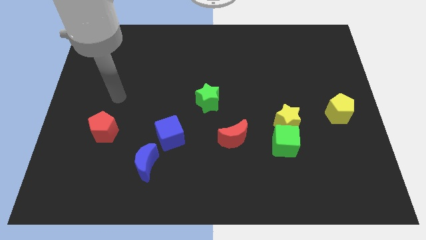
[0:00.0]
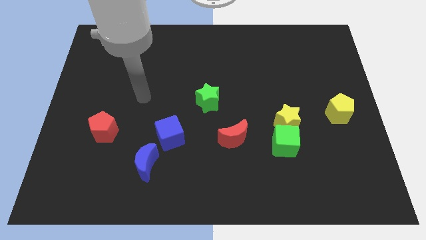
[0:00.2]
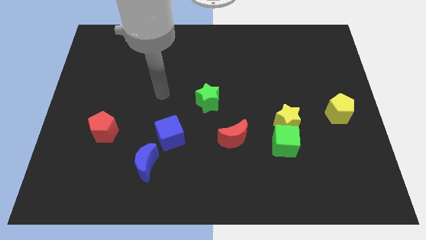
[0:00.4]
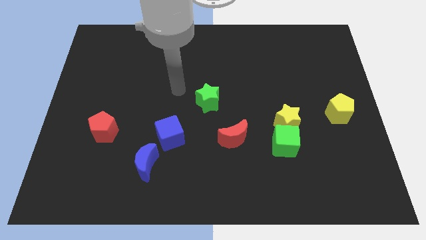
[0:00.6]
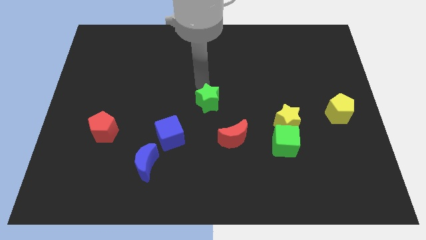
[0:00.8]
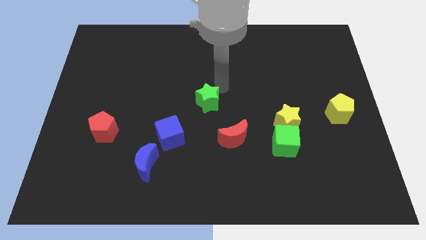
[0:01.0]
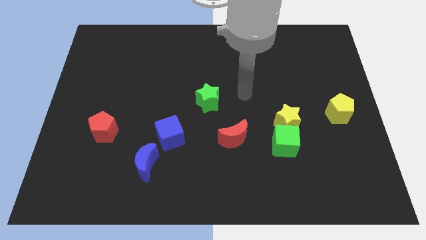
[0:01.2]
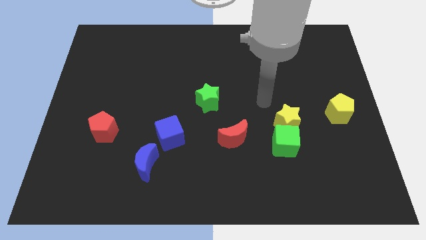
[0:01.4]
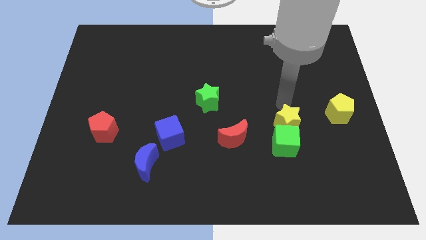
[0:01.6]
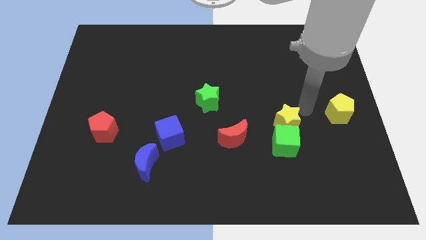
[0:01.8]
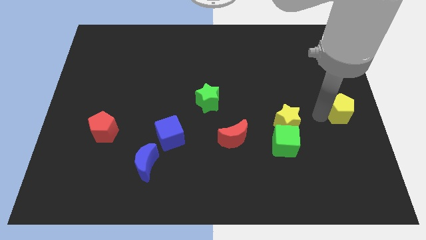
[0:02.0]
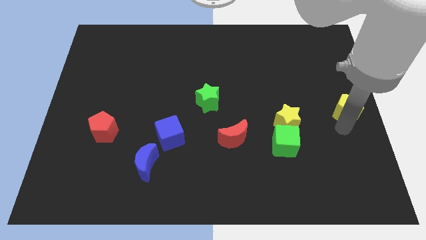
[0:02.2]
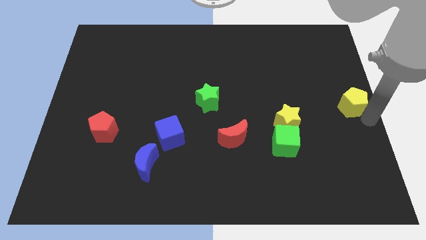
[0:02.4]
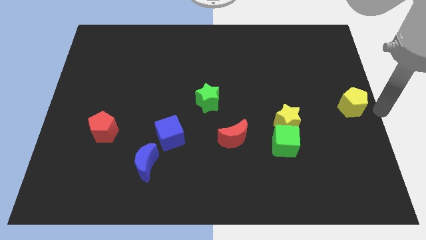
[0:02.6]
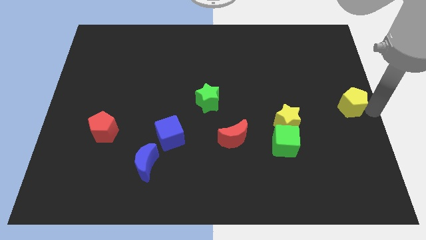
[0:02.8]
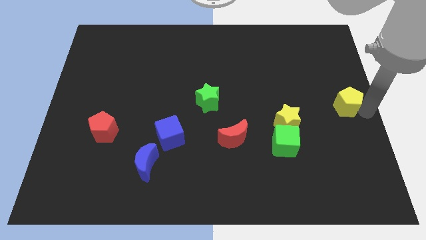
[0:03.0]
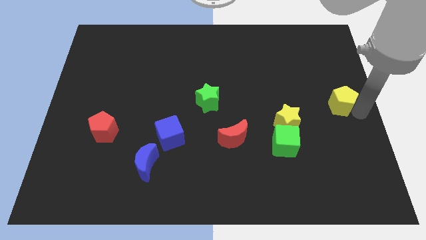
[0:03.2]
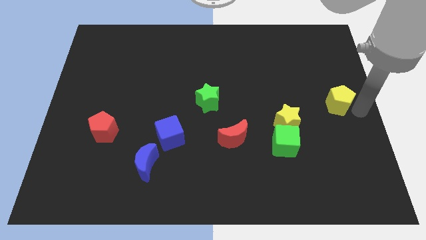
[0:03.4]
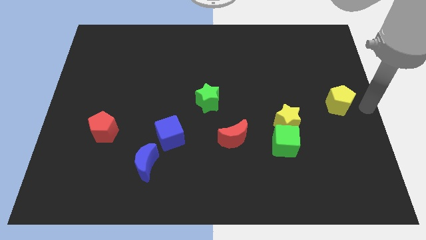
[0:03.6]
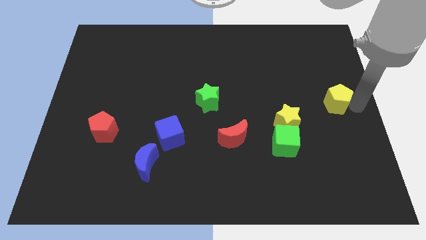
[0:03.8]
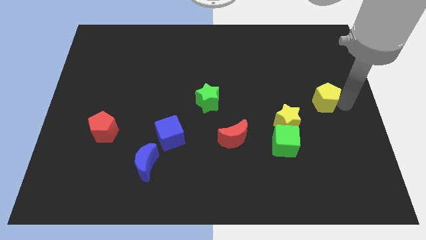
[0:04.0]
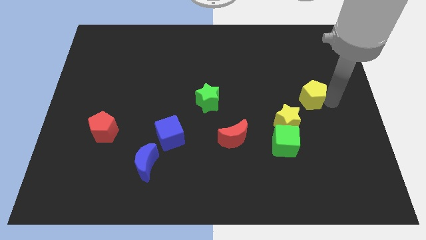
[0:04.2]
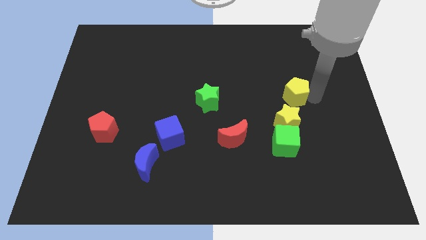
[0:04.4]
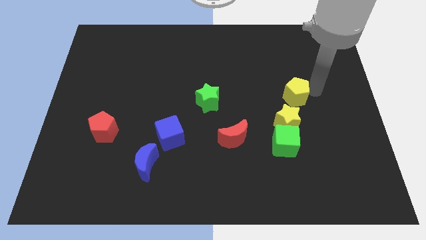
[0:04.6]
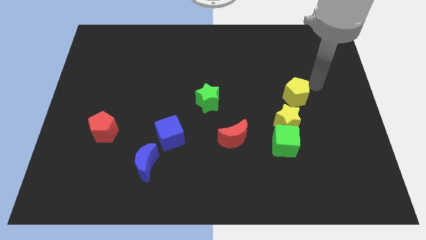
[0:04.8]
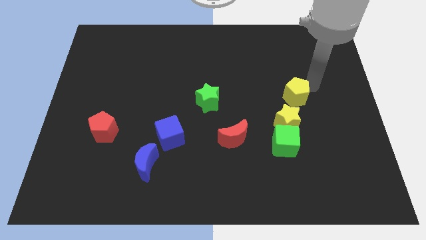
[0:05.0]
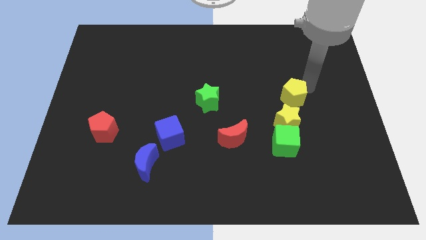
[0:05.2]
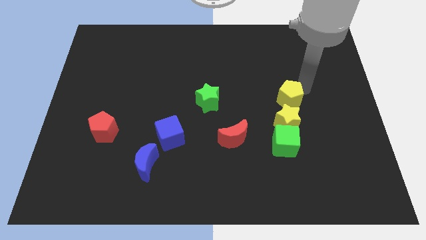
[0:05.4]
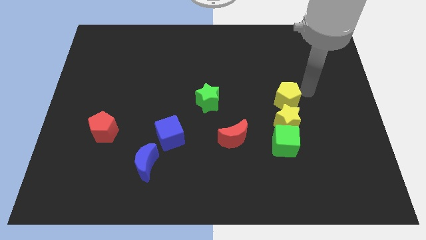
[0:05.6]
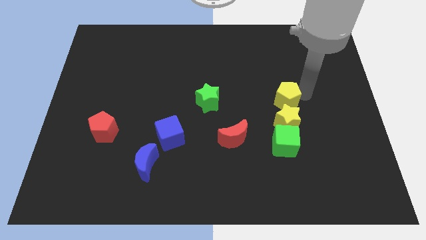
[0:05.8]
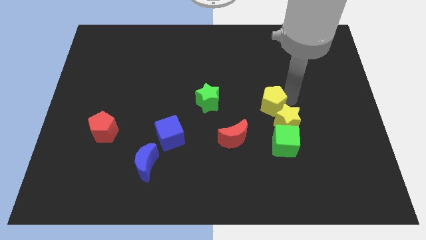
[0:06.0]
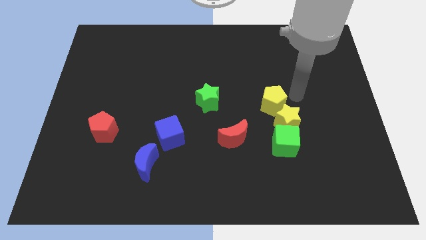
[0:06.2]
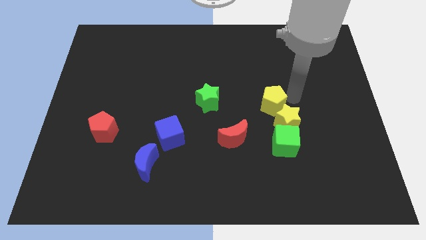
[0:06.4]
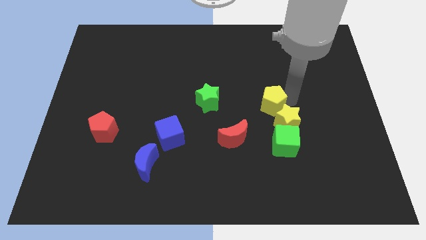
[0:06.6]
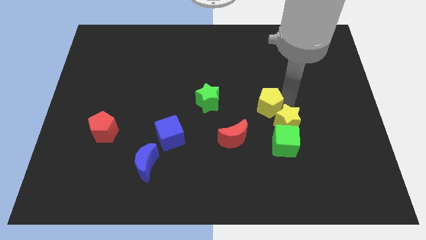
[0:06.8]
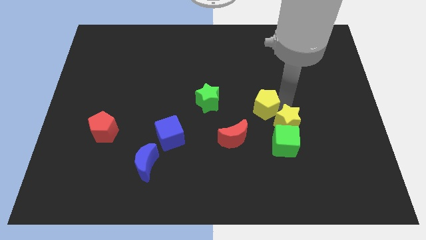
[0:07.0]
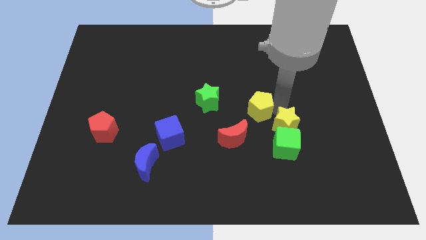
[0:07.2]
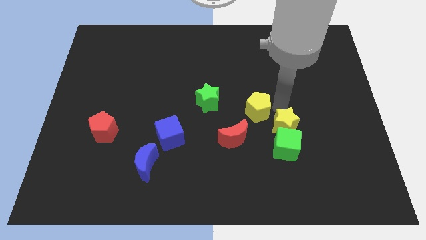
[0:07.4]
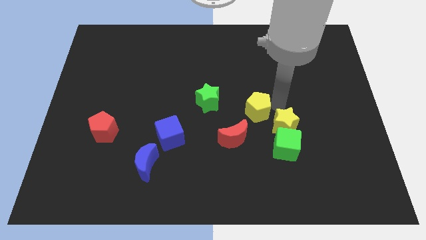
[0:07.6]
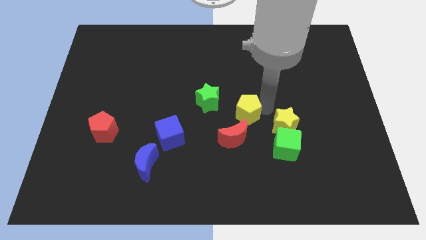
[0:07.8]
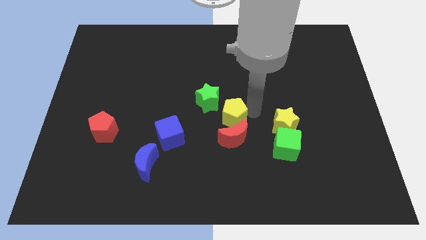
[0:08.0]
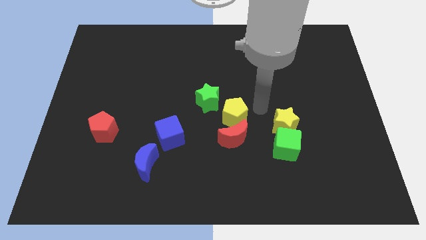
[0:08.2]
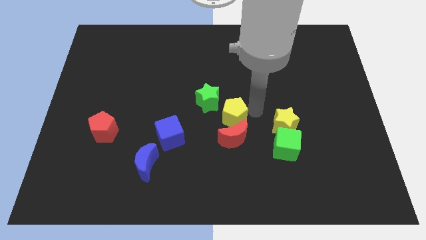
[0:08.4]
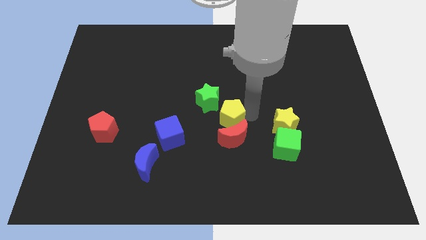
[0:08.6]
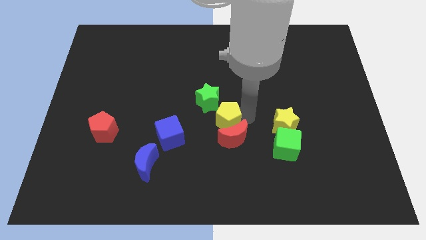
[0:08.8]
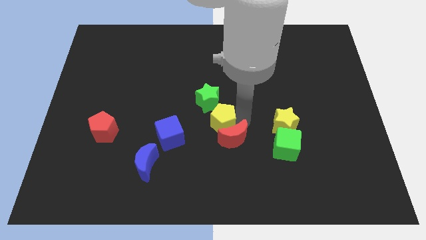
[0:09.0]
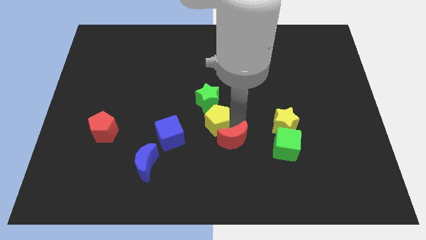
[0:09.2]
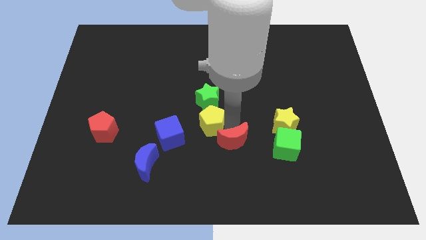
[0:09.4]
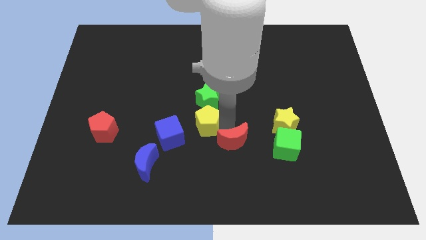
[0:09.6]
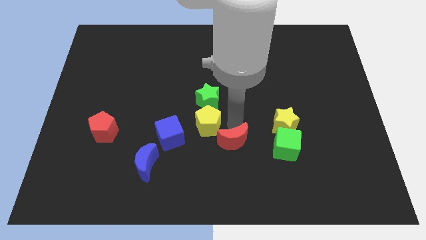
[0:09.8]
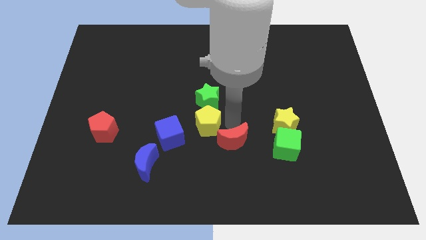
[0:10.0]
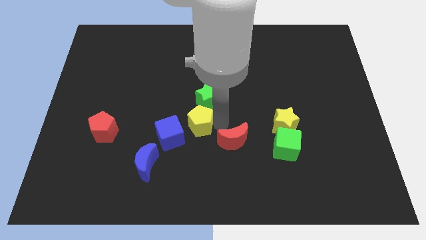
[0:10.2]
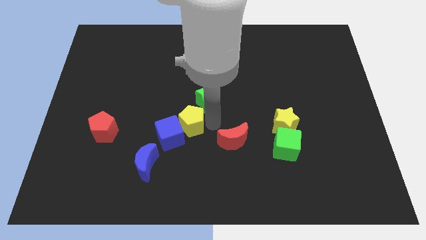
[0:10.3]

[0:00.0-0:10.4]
push the yellow pentagon towards the blue cube

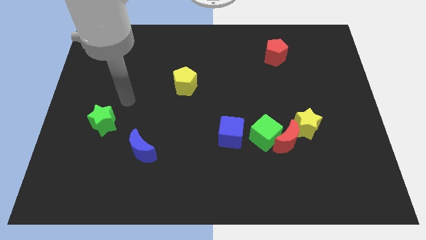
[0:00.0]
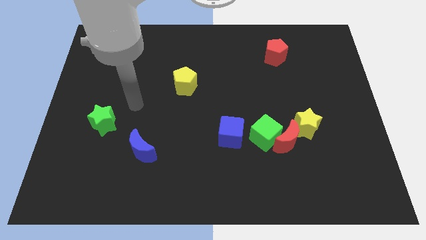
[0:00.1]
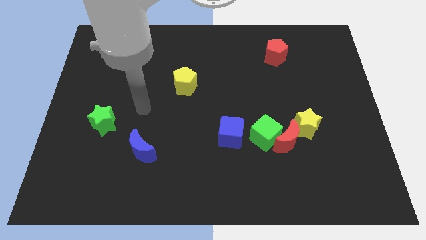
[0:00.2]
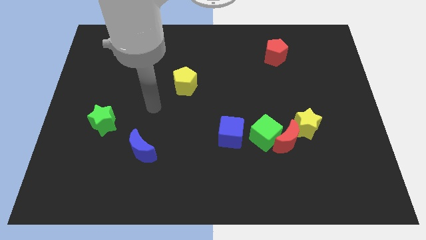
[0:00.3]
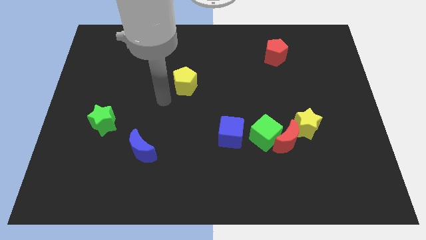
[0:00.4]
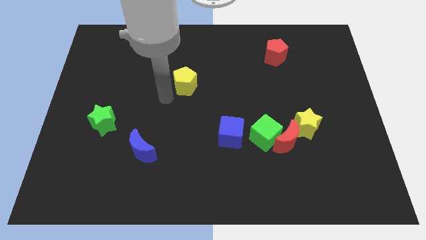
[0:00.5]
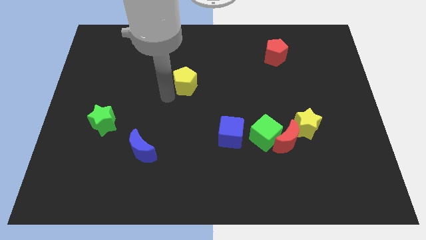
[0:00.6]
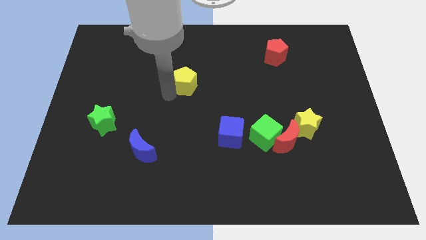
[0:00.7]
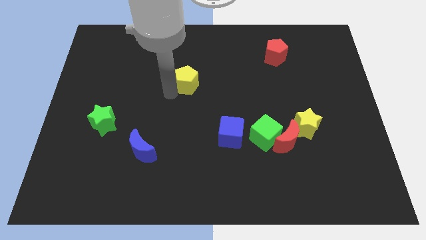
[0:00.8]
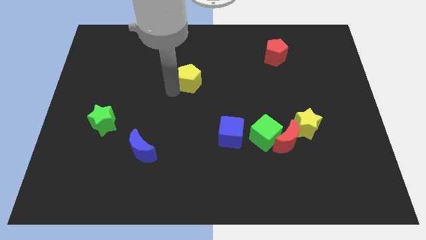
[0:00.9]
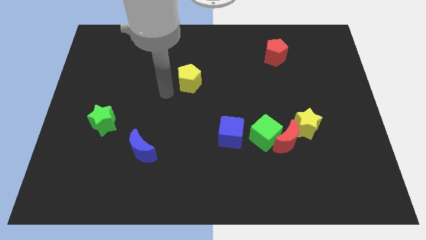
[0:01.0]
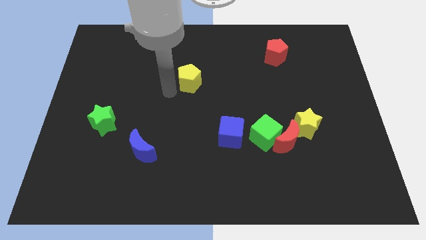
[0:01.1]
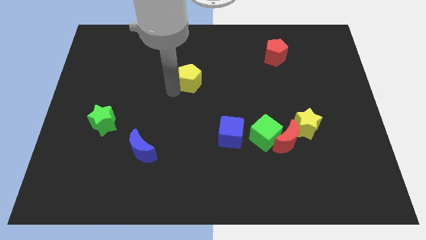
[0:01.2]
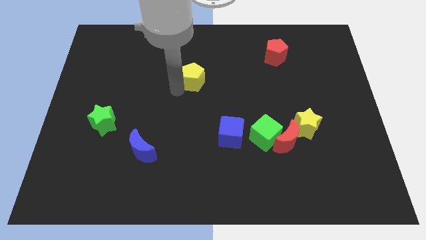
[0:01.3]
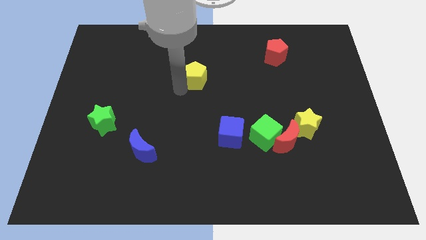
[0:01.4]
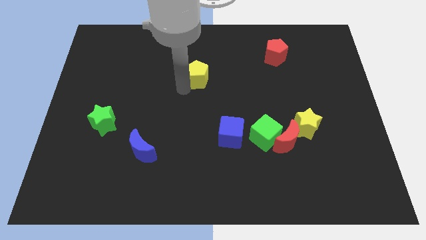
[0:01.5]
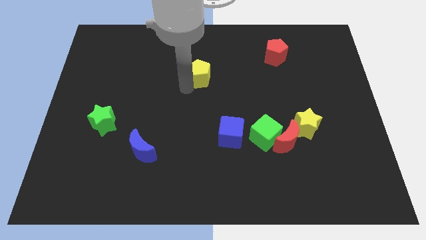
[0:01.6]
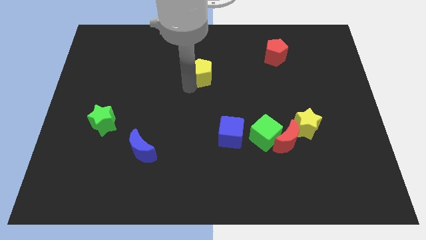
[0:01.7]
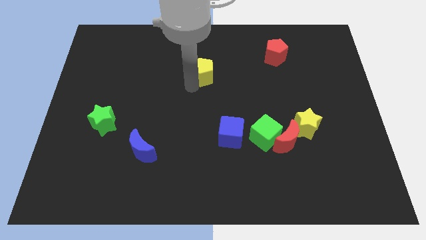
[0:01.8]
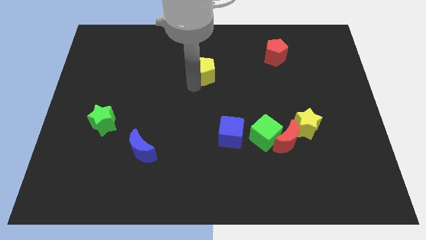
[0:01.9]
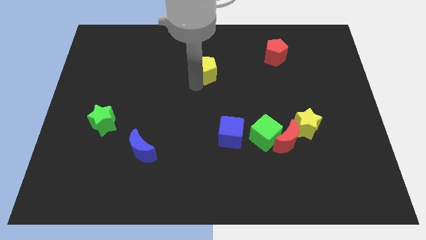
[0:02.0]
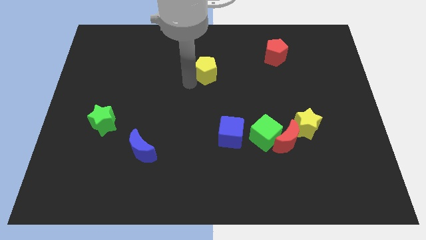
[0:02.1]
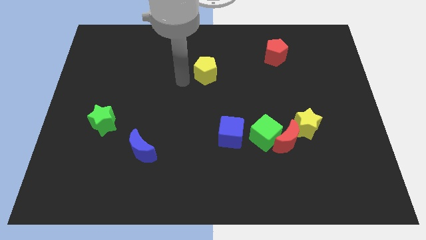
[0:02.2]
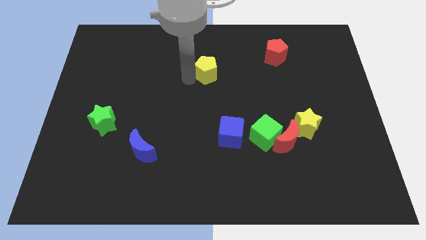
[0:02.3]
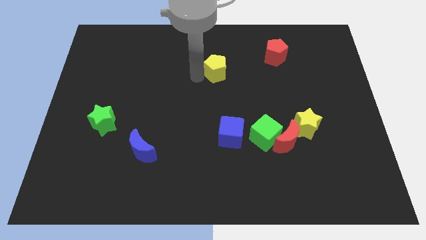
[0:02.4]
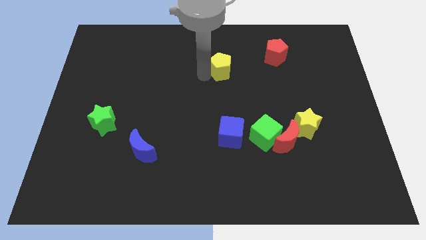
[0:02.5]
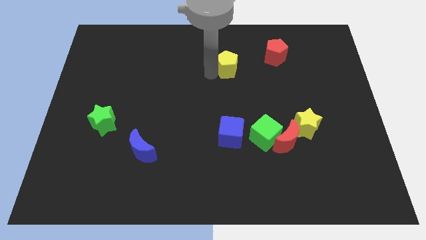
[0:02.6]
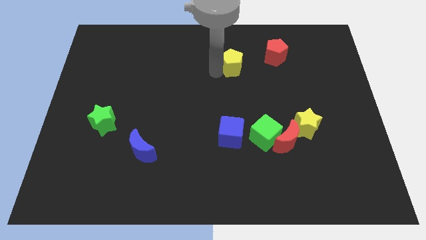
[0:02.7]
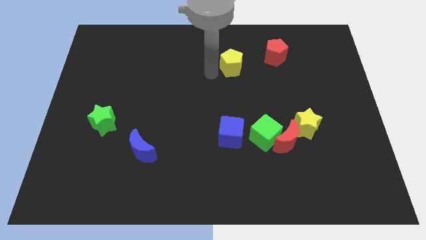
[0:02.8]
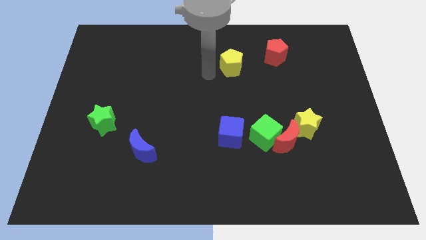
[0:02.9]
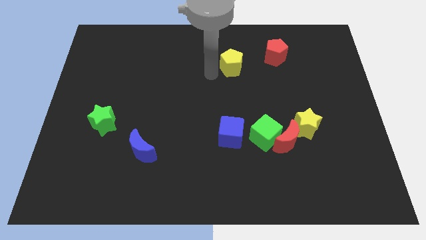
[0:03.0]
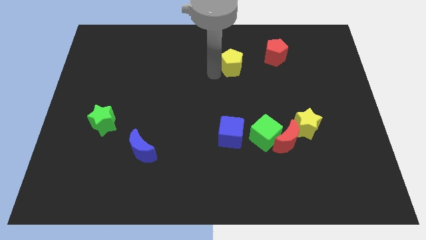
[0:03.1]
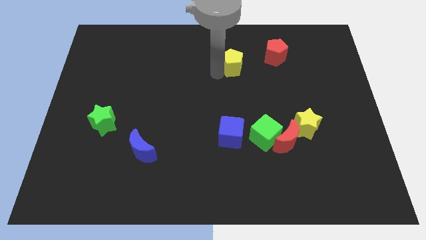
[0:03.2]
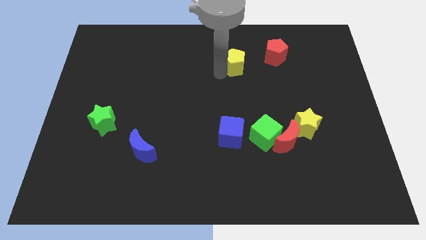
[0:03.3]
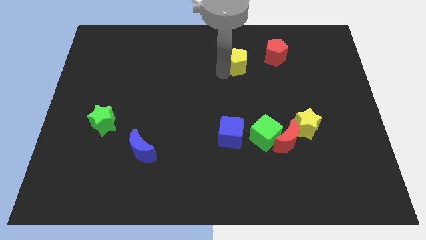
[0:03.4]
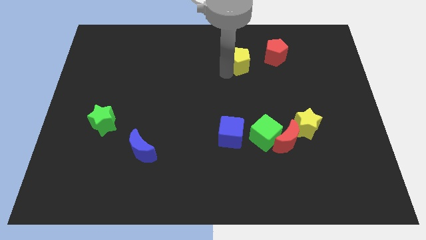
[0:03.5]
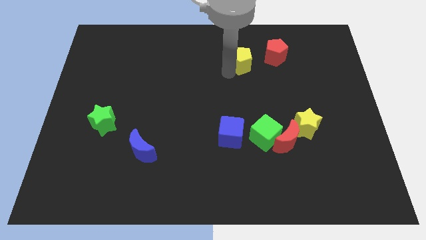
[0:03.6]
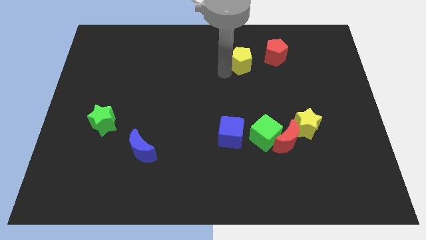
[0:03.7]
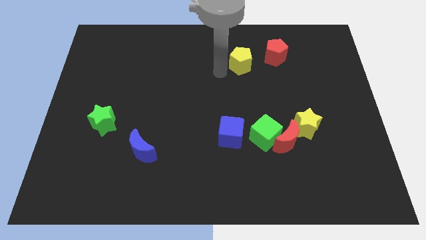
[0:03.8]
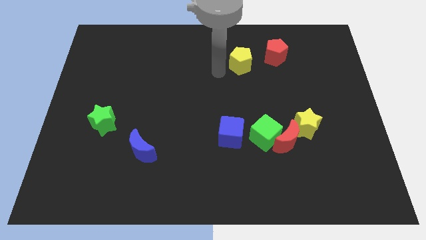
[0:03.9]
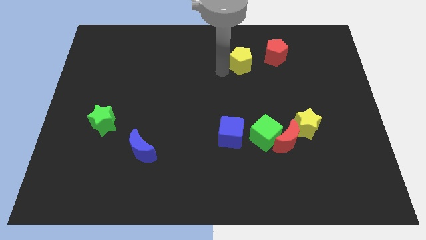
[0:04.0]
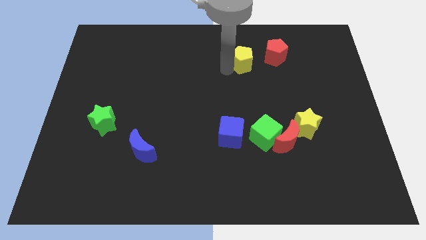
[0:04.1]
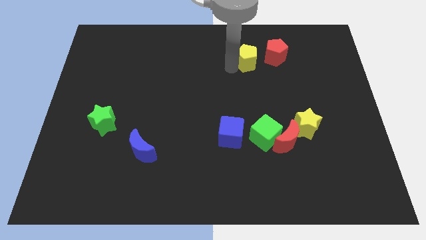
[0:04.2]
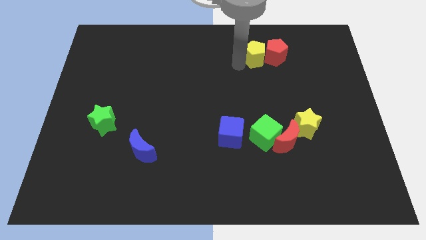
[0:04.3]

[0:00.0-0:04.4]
slide the yellow pentagon close to the red pentagon
